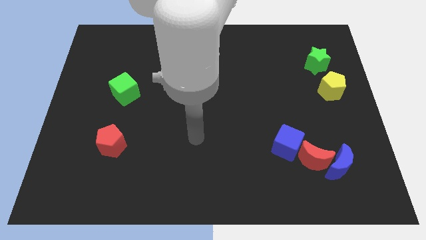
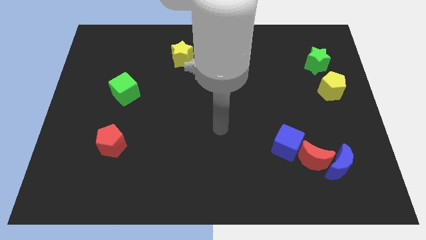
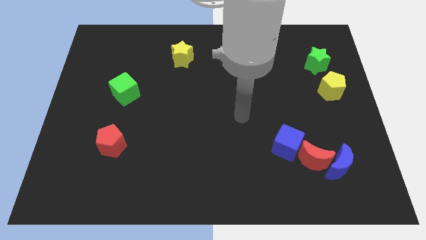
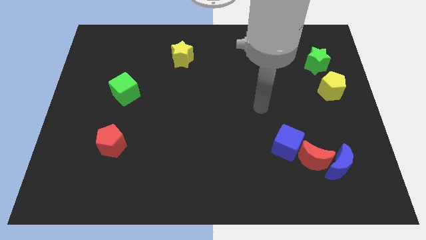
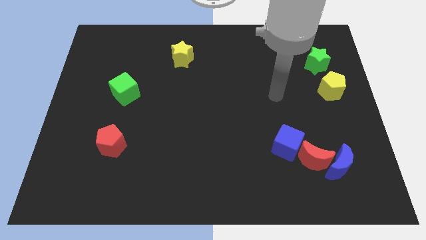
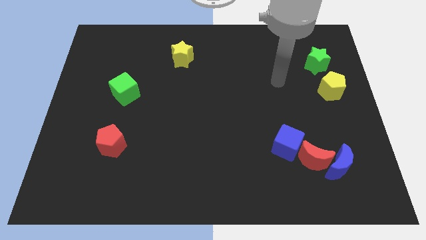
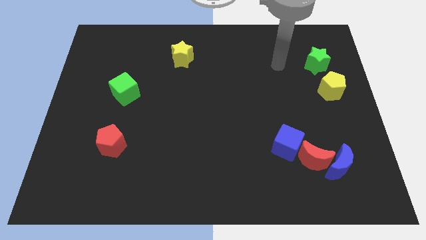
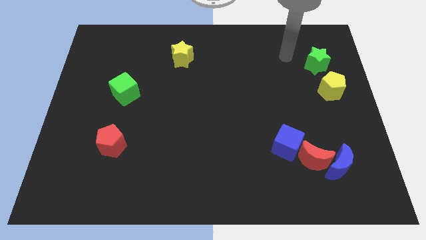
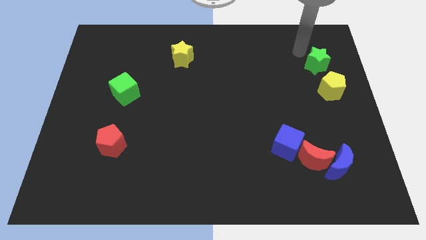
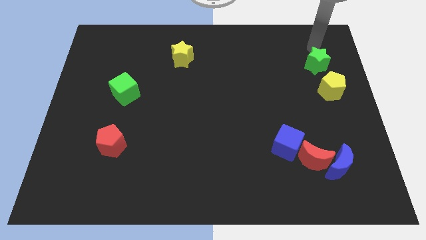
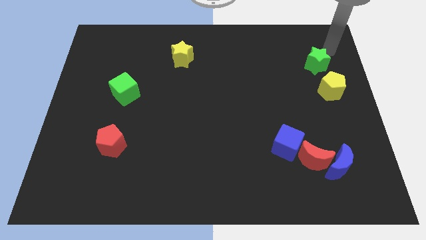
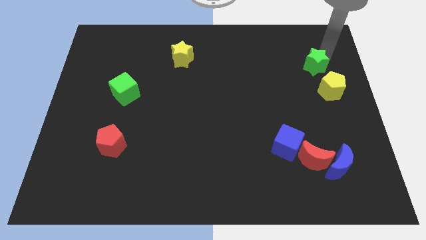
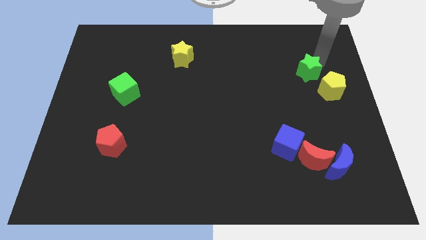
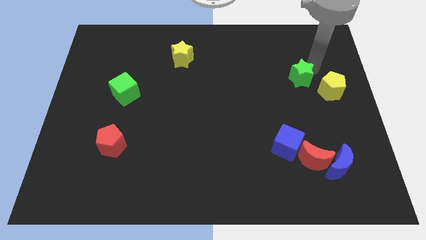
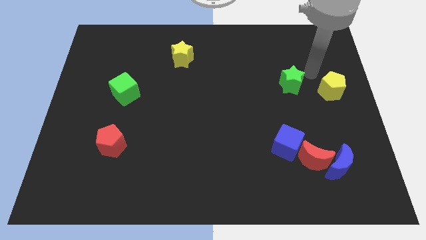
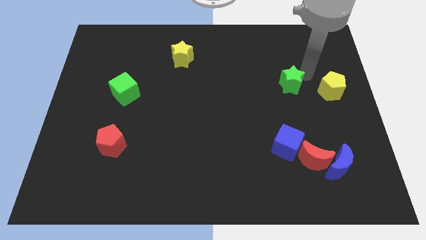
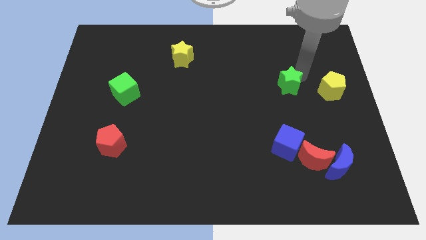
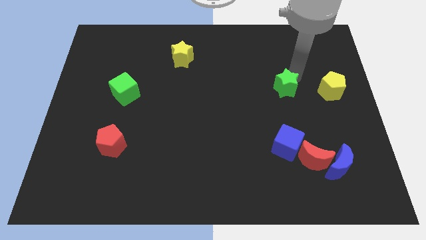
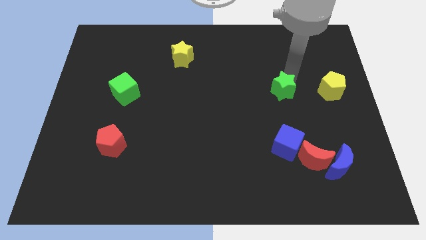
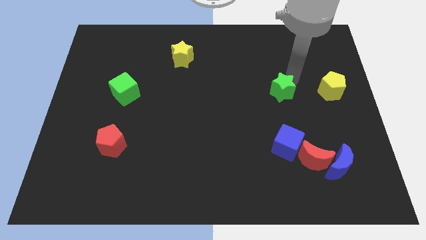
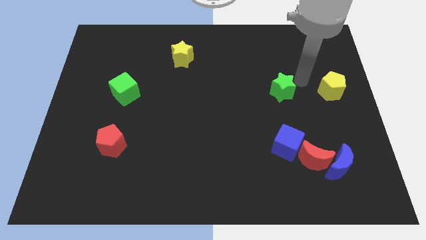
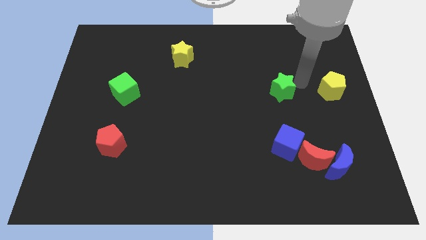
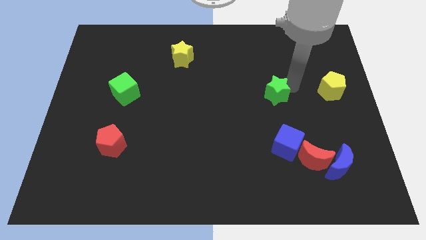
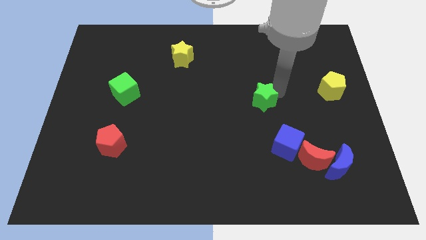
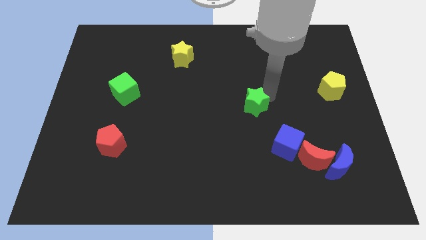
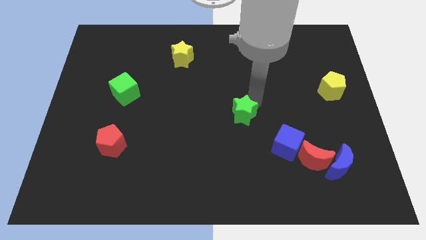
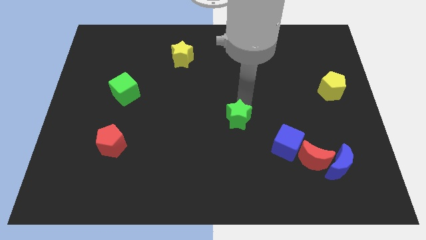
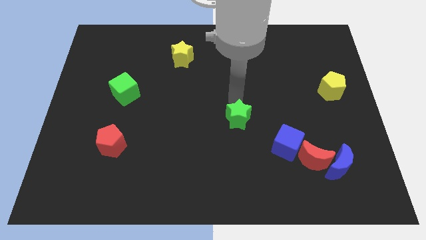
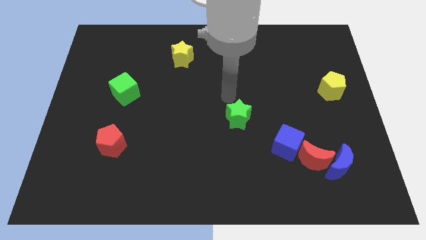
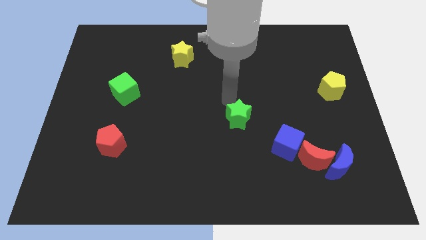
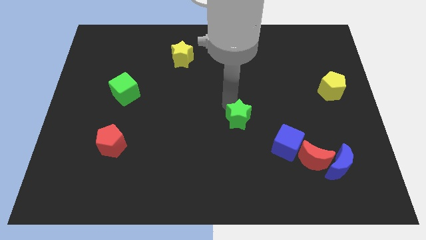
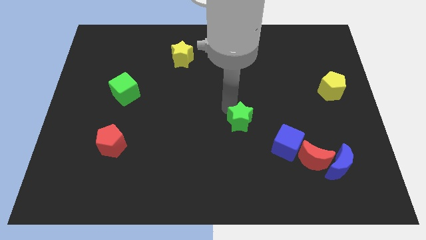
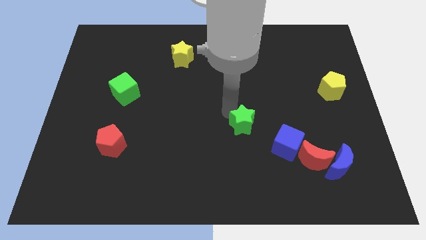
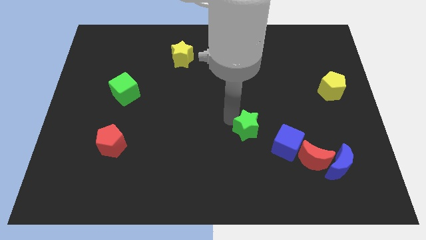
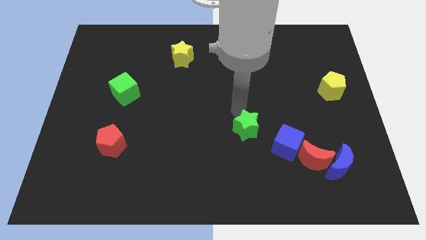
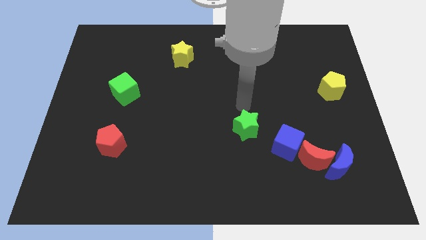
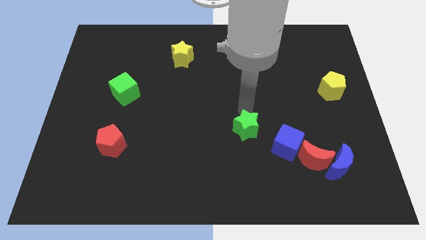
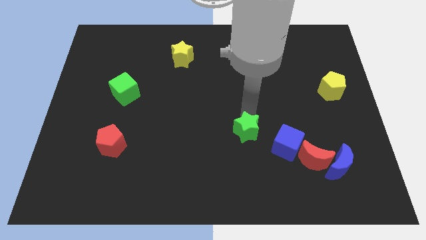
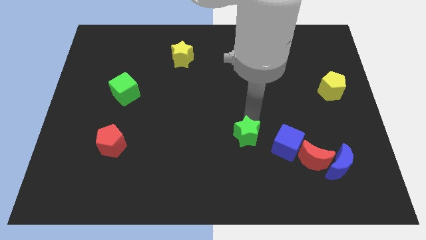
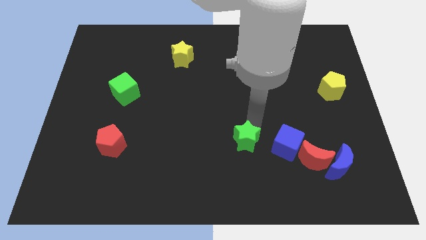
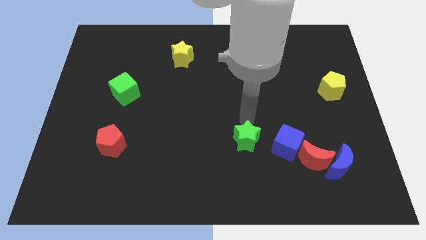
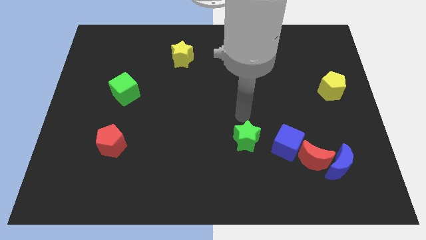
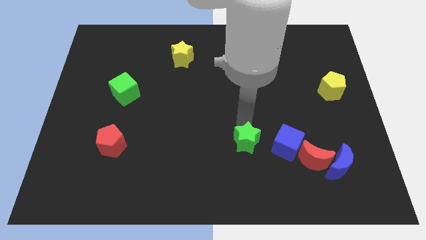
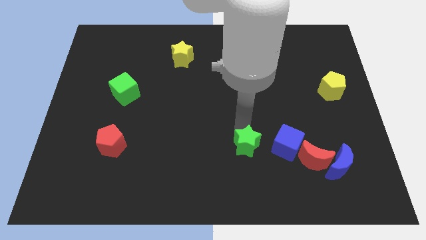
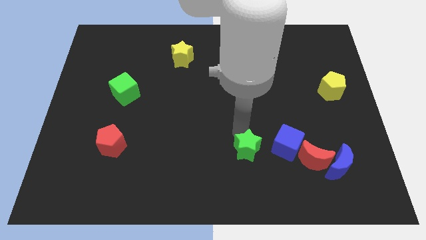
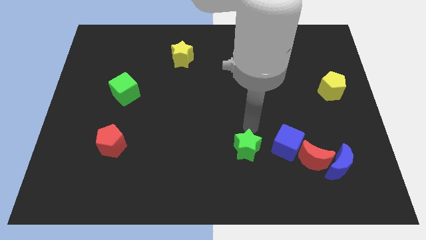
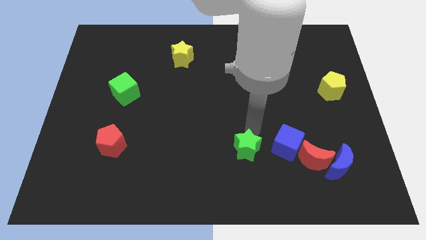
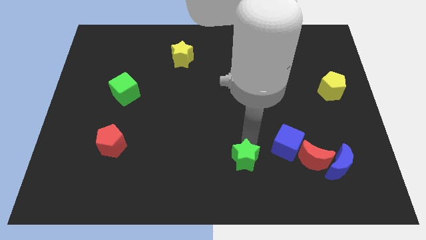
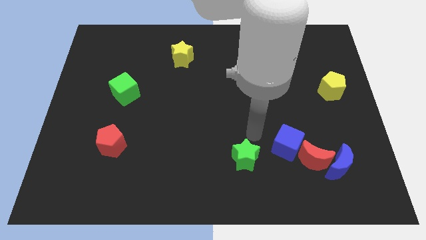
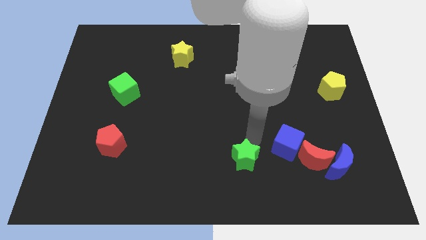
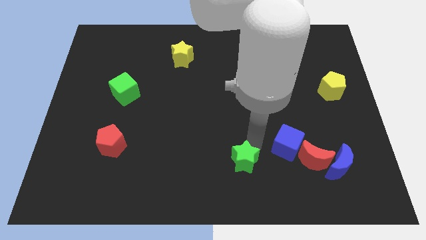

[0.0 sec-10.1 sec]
push the green star to the bottom side
